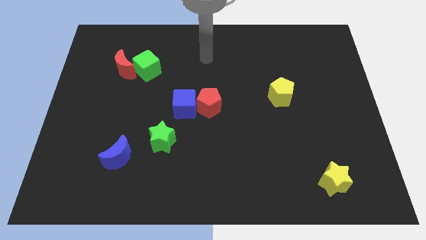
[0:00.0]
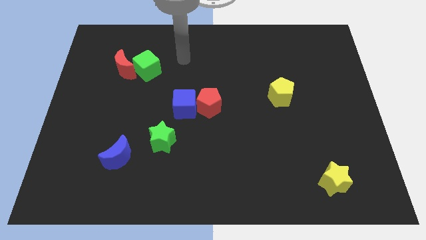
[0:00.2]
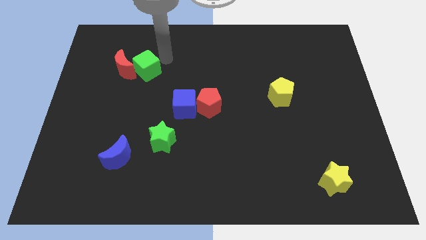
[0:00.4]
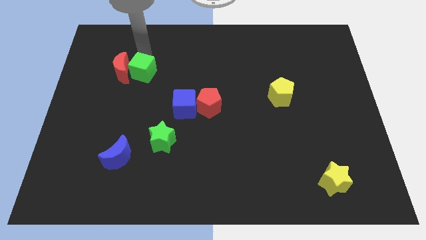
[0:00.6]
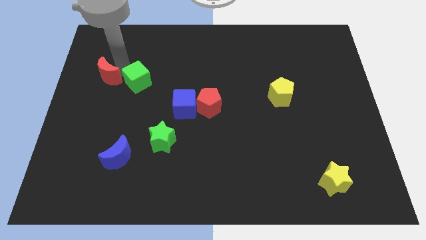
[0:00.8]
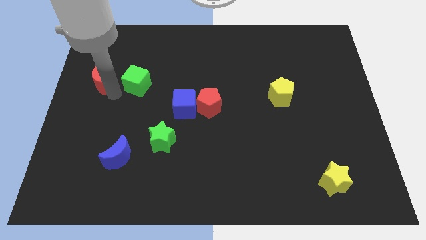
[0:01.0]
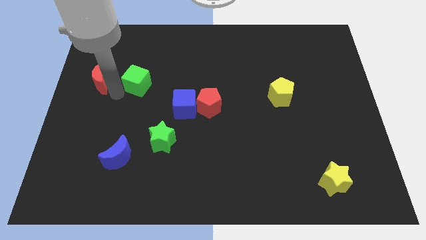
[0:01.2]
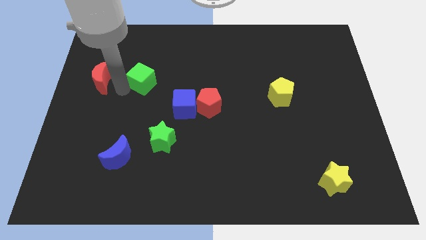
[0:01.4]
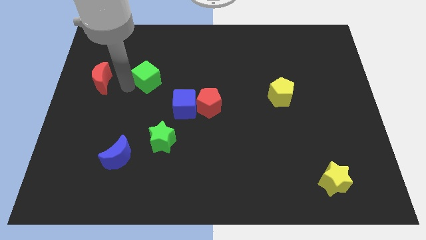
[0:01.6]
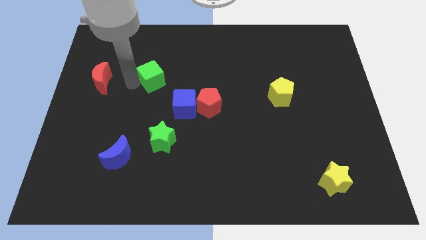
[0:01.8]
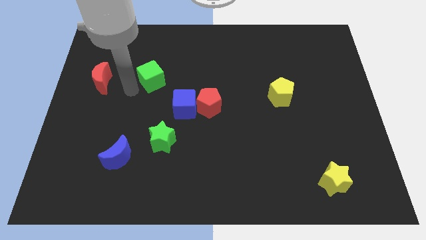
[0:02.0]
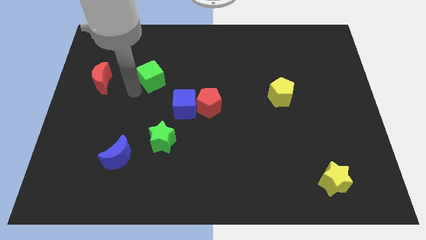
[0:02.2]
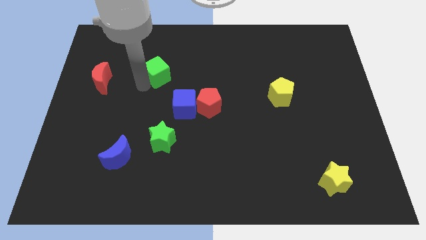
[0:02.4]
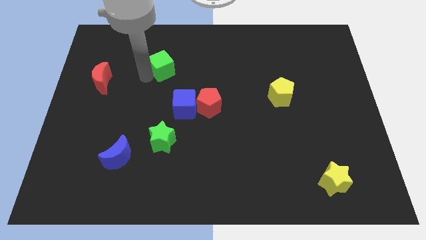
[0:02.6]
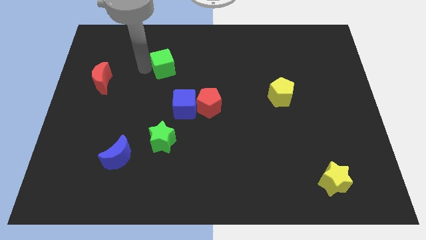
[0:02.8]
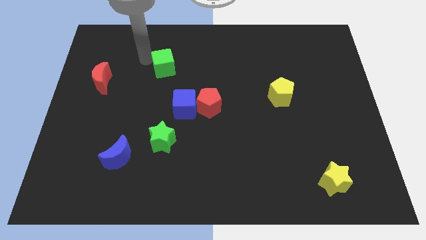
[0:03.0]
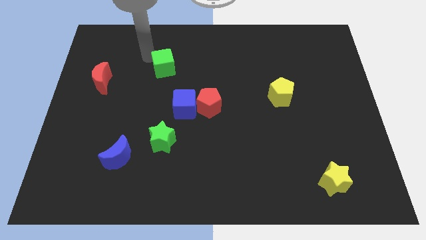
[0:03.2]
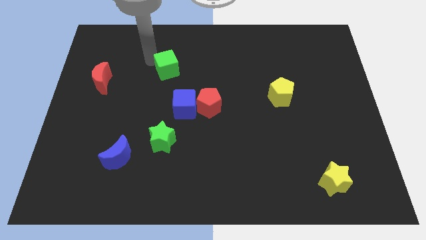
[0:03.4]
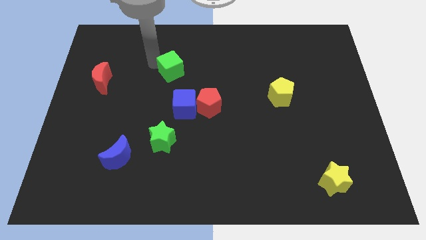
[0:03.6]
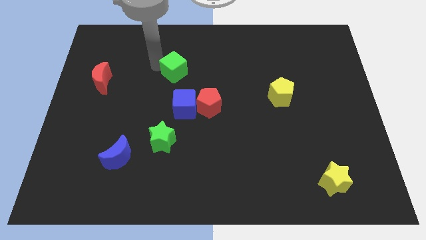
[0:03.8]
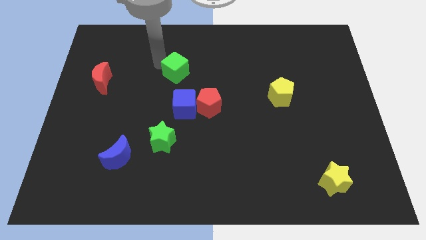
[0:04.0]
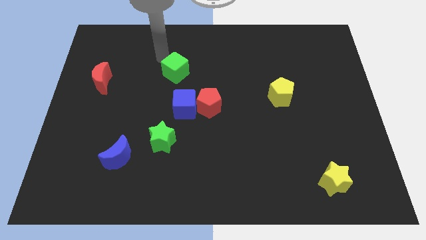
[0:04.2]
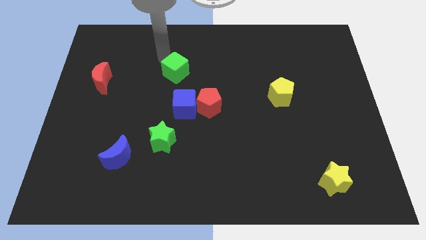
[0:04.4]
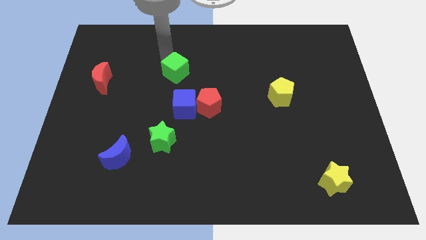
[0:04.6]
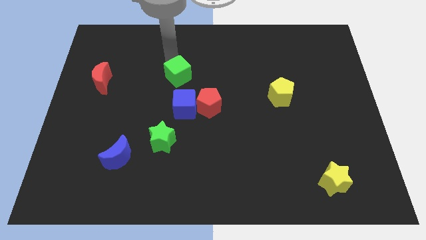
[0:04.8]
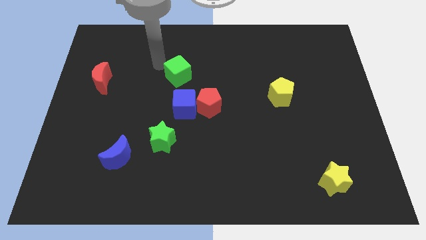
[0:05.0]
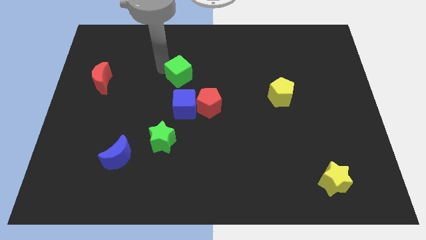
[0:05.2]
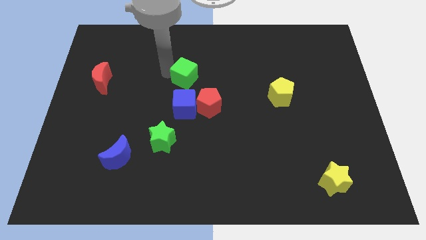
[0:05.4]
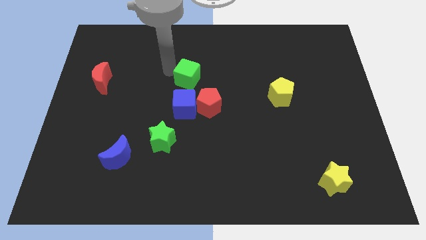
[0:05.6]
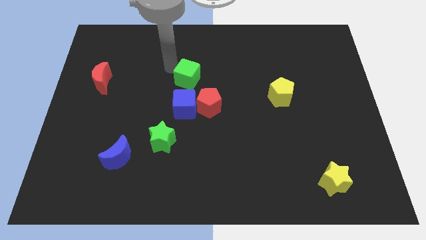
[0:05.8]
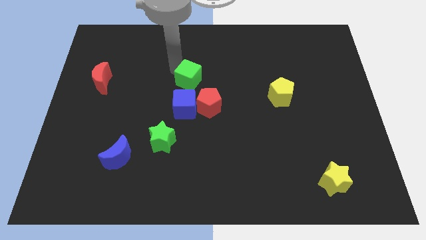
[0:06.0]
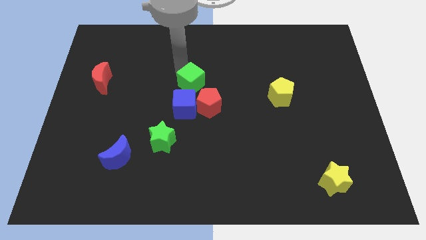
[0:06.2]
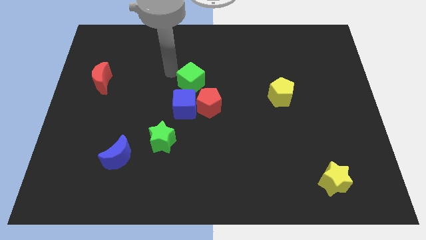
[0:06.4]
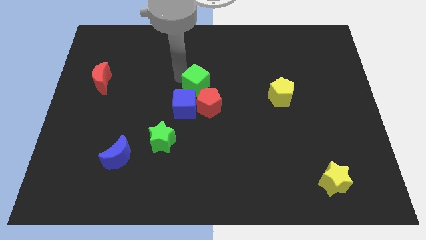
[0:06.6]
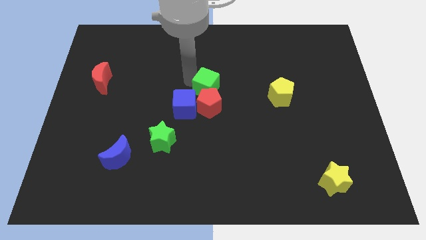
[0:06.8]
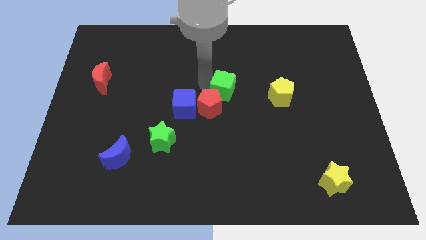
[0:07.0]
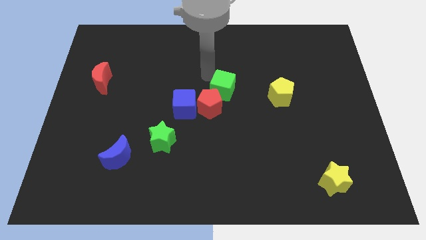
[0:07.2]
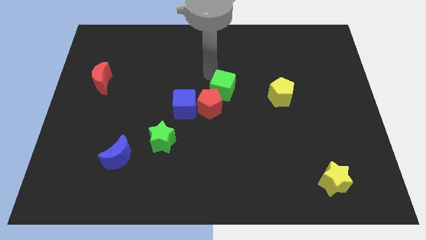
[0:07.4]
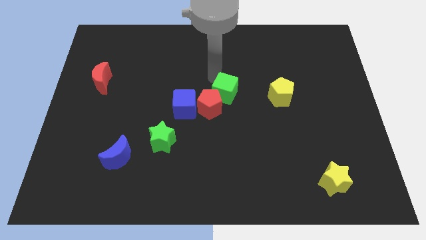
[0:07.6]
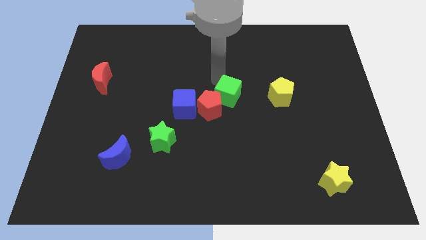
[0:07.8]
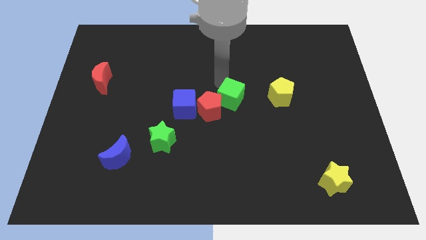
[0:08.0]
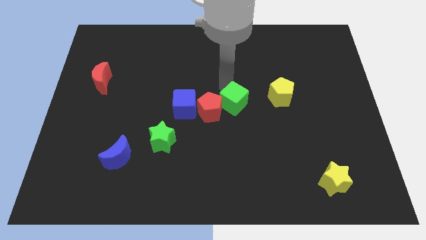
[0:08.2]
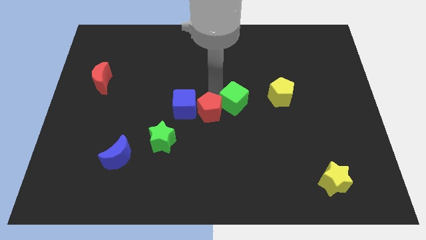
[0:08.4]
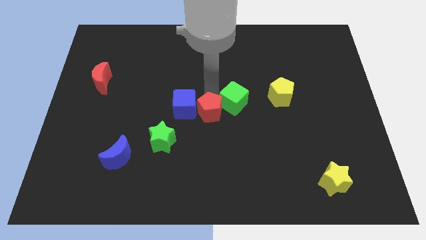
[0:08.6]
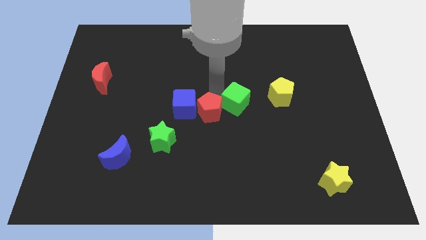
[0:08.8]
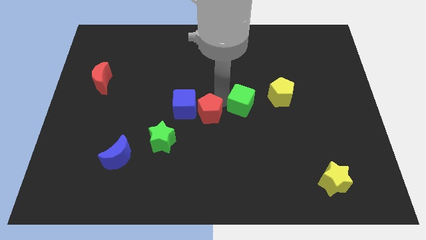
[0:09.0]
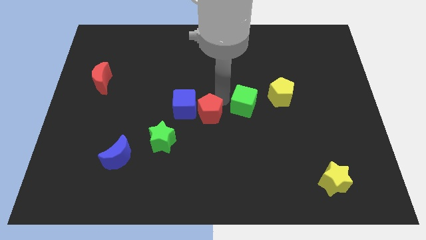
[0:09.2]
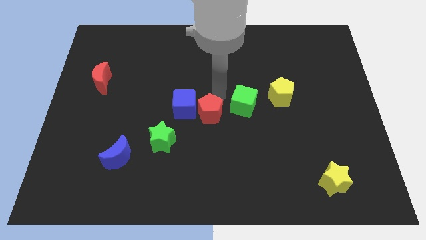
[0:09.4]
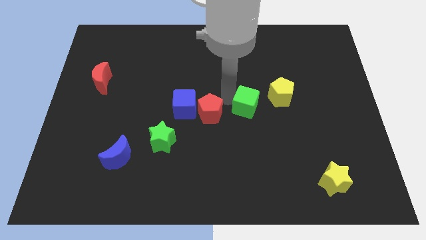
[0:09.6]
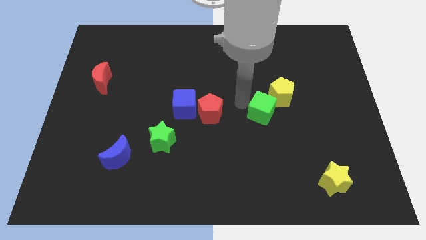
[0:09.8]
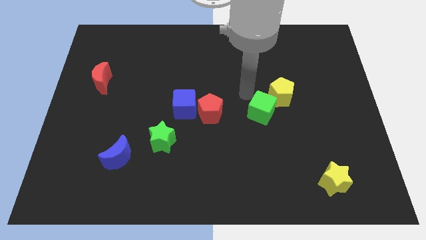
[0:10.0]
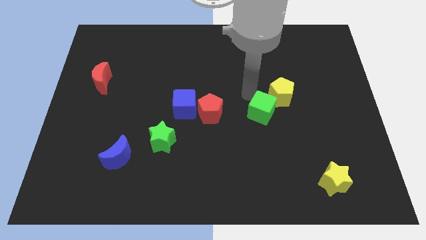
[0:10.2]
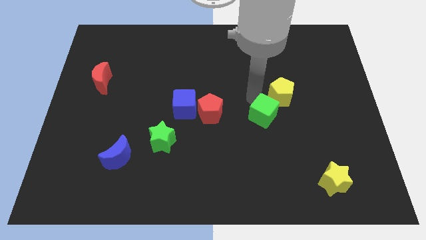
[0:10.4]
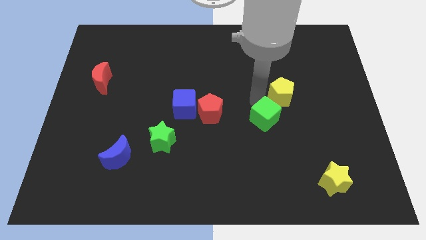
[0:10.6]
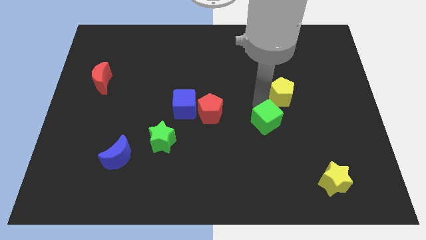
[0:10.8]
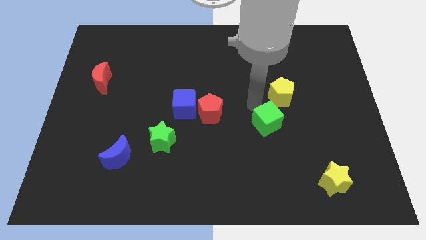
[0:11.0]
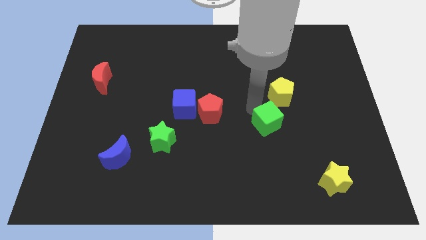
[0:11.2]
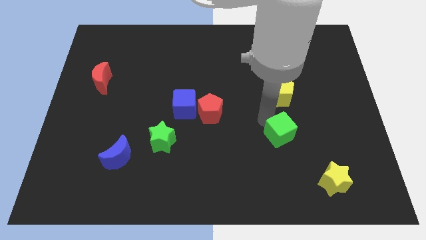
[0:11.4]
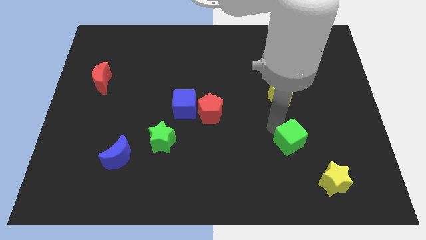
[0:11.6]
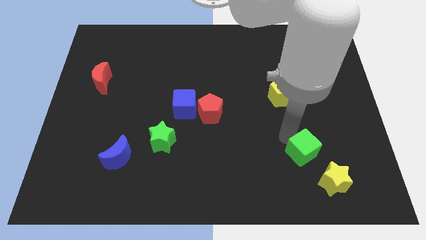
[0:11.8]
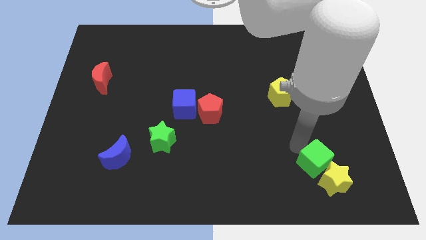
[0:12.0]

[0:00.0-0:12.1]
move the green cube to the yellow star

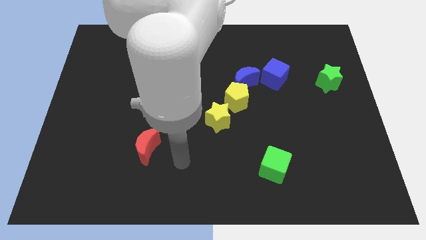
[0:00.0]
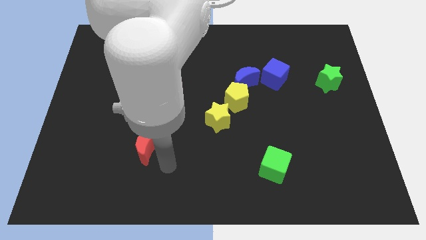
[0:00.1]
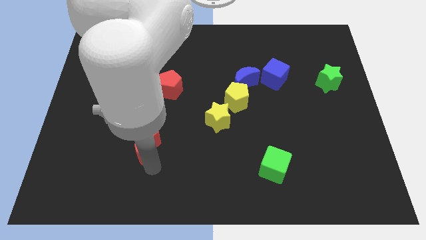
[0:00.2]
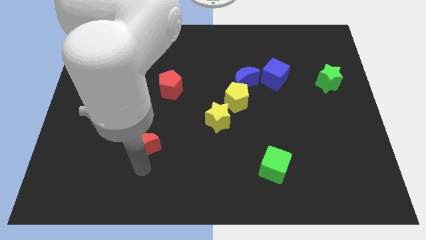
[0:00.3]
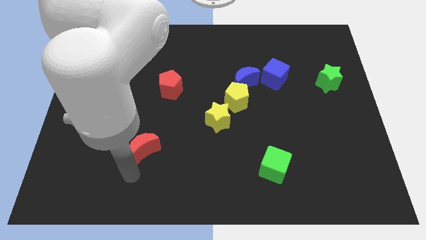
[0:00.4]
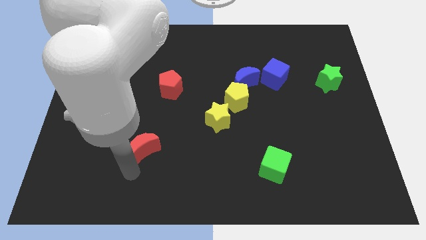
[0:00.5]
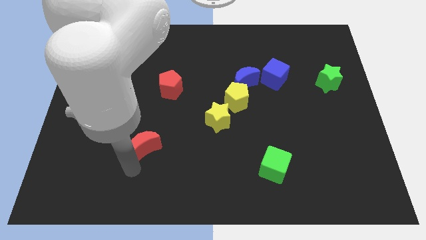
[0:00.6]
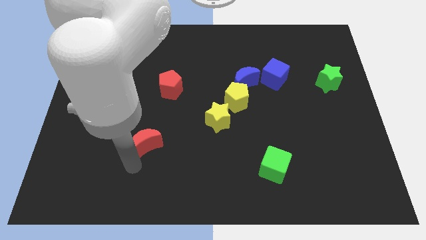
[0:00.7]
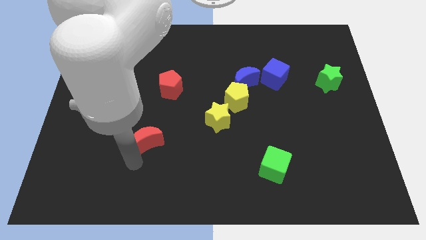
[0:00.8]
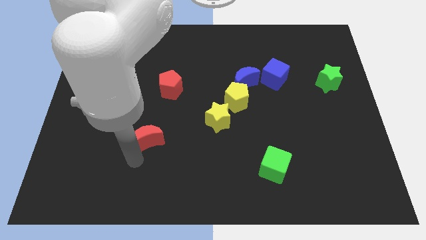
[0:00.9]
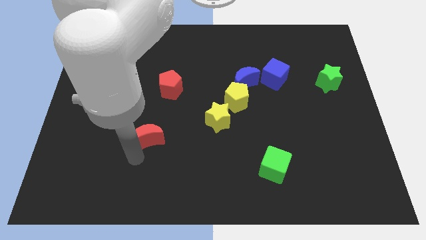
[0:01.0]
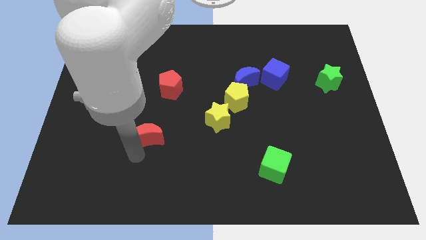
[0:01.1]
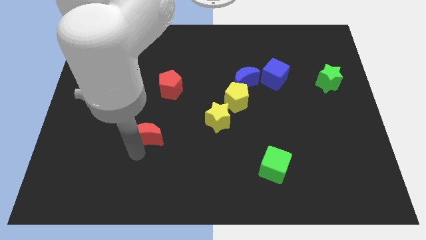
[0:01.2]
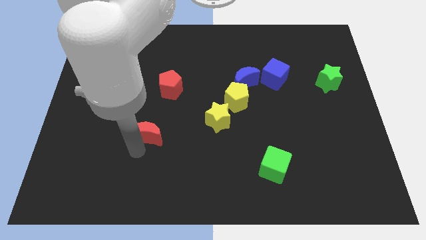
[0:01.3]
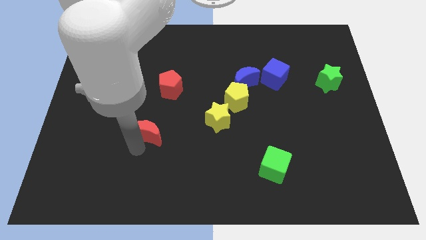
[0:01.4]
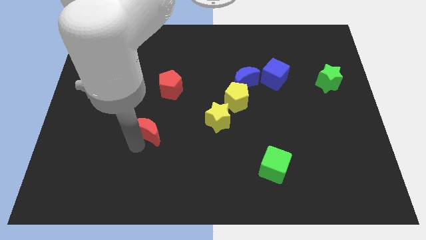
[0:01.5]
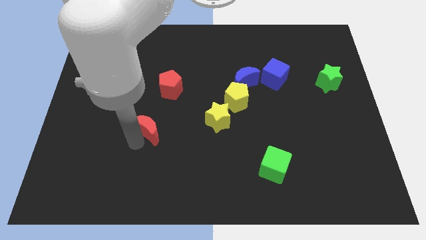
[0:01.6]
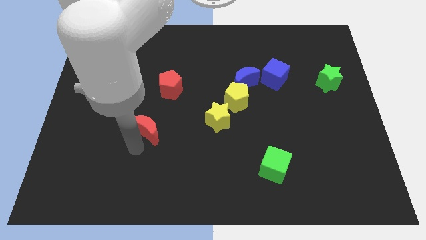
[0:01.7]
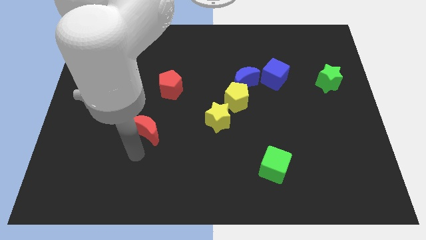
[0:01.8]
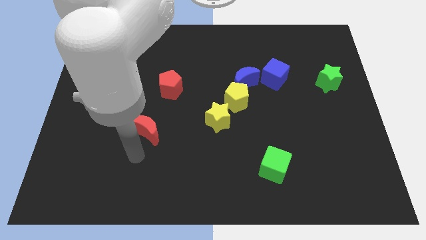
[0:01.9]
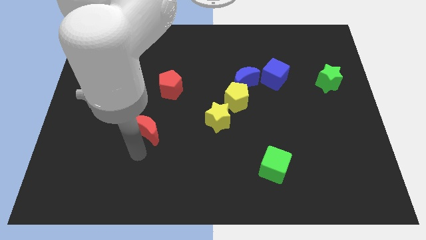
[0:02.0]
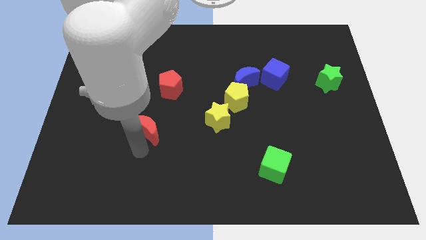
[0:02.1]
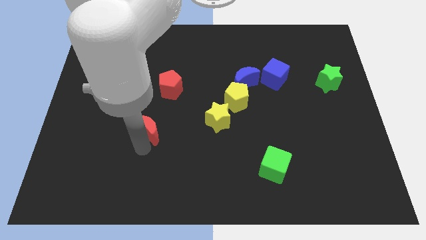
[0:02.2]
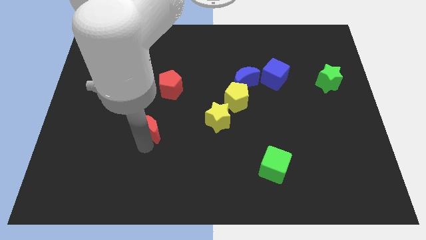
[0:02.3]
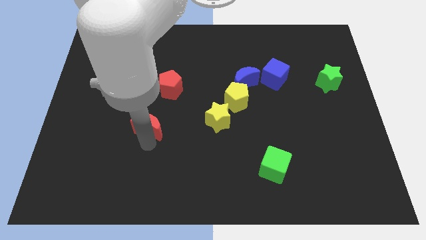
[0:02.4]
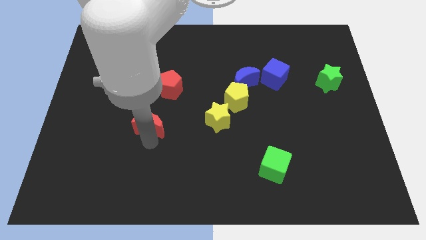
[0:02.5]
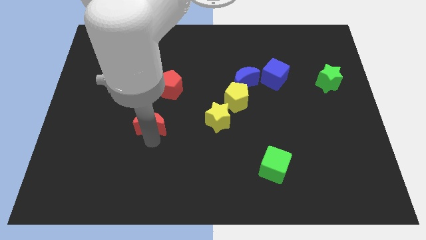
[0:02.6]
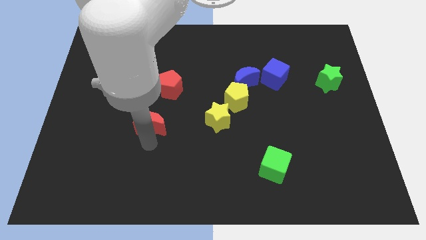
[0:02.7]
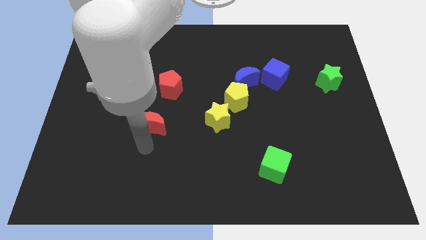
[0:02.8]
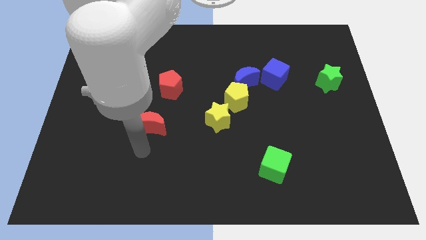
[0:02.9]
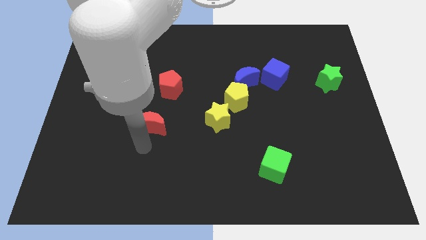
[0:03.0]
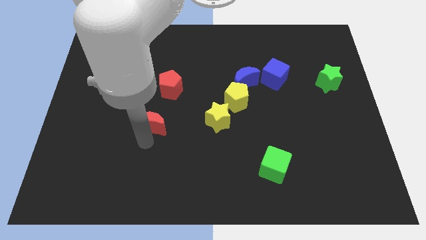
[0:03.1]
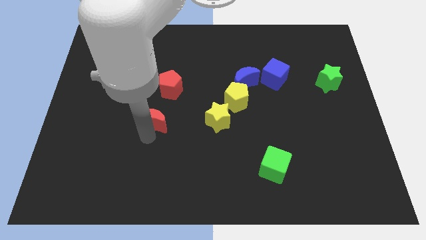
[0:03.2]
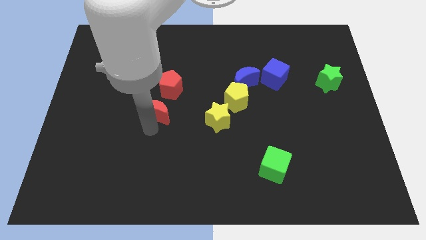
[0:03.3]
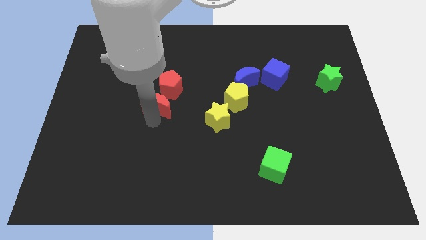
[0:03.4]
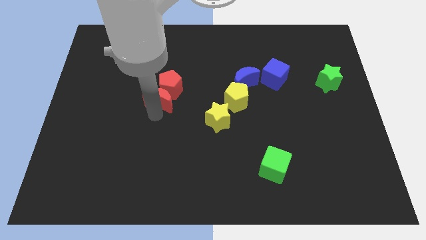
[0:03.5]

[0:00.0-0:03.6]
move the red moon towards the red pentagon
